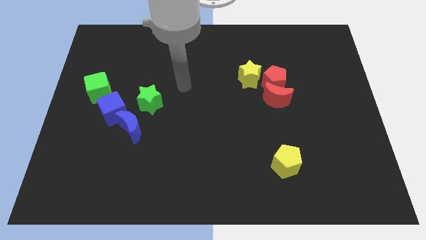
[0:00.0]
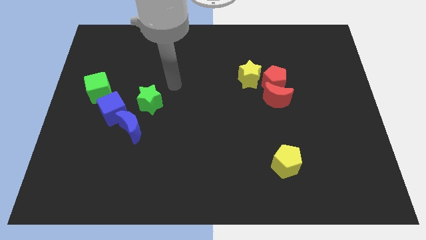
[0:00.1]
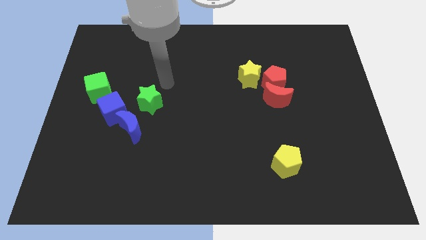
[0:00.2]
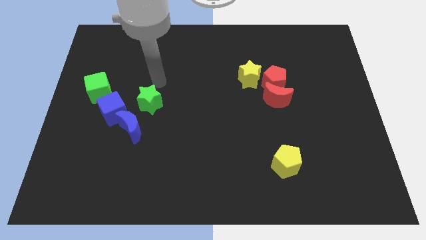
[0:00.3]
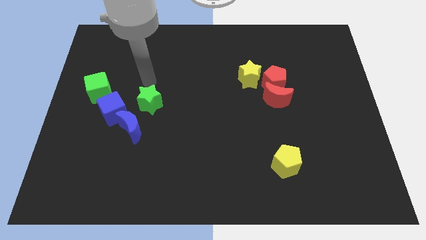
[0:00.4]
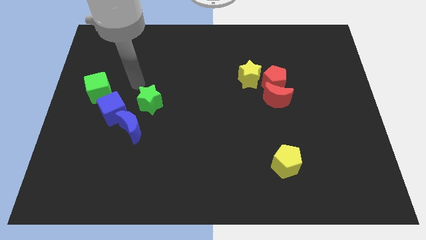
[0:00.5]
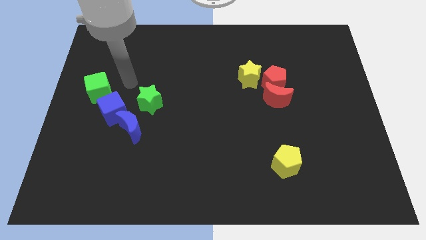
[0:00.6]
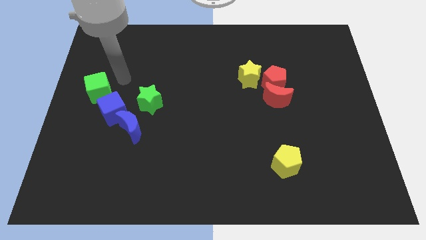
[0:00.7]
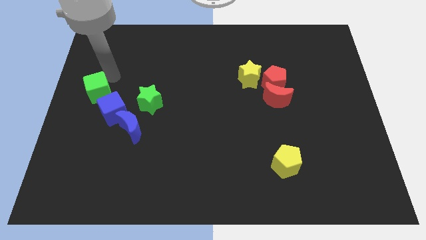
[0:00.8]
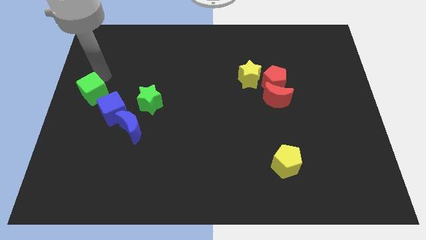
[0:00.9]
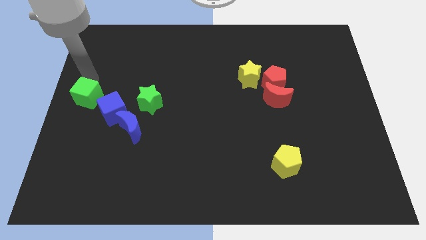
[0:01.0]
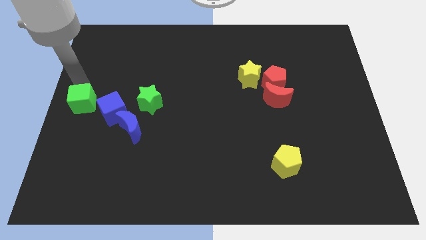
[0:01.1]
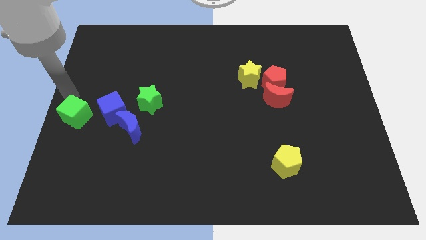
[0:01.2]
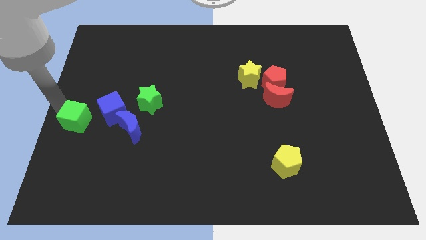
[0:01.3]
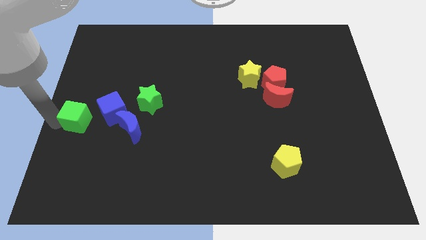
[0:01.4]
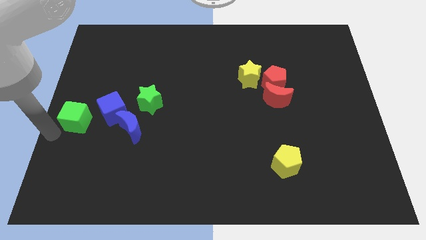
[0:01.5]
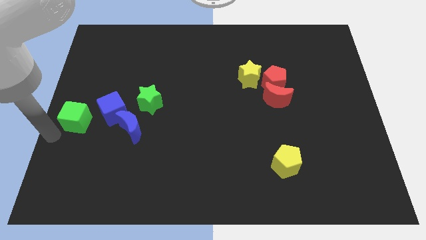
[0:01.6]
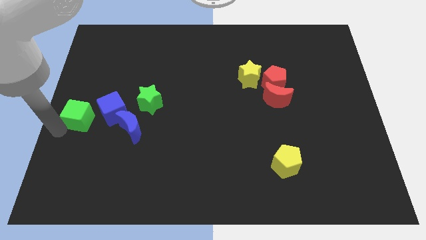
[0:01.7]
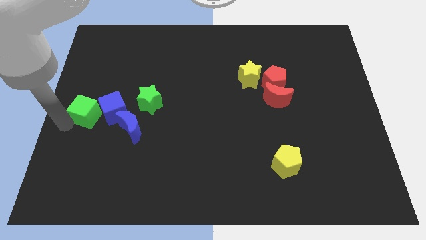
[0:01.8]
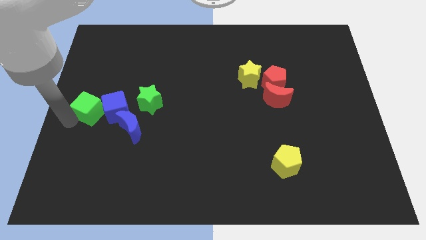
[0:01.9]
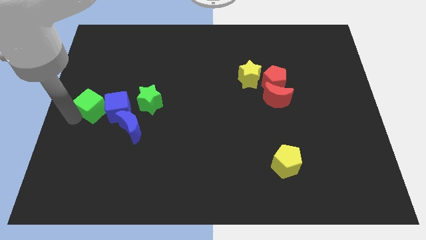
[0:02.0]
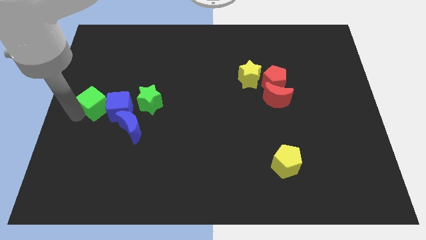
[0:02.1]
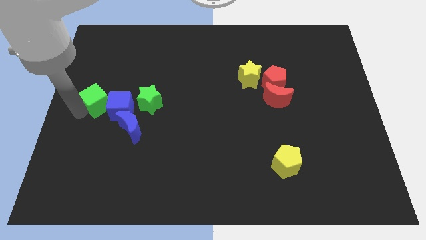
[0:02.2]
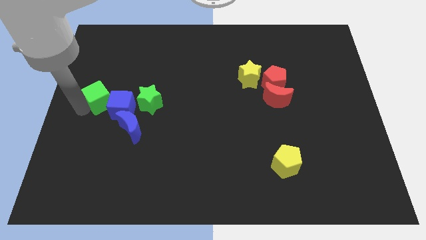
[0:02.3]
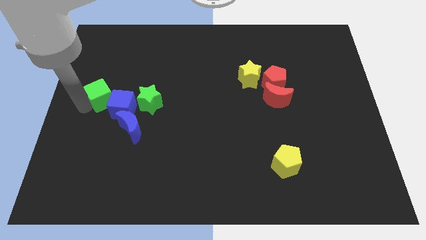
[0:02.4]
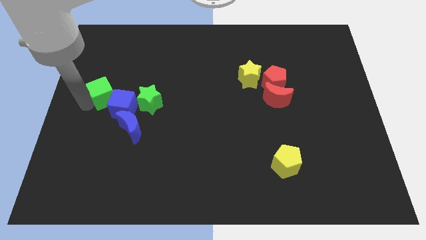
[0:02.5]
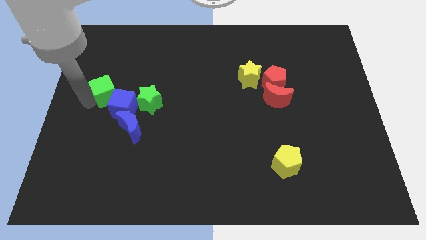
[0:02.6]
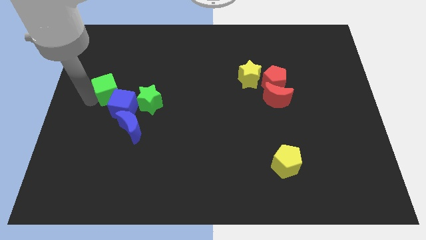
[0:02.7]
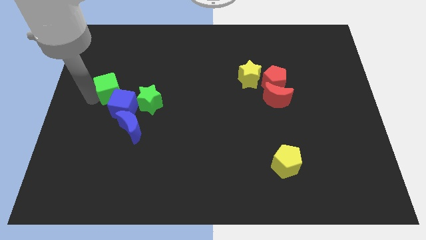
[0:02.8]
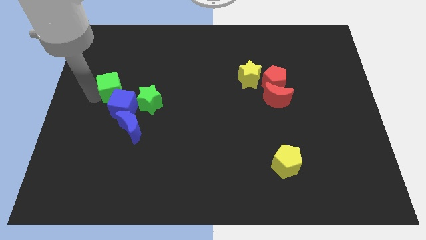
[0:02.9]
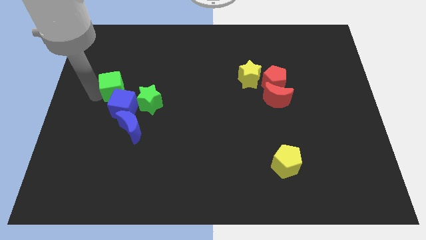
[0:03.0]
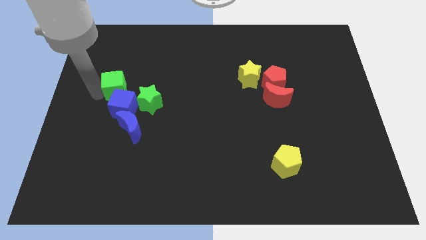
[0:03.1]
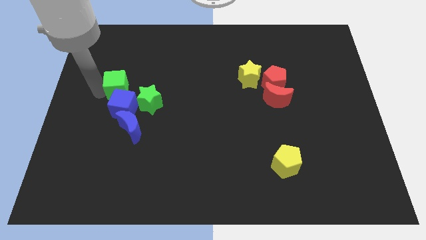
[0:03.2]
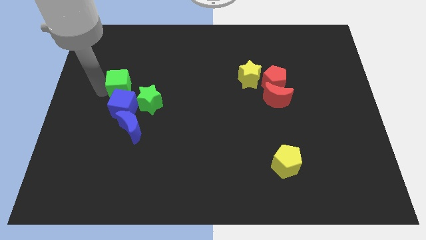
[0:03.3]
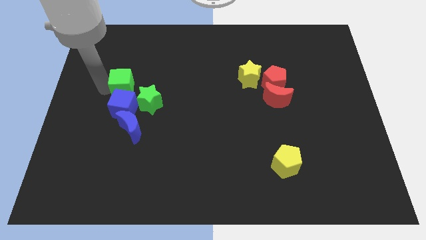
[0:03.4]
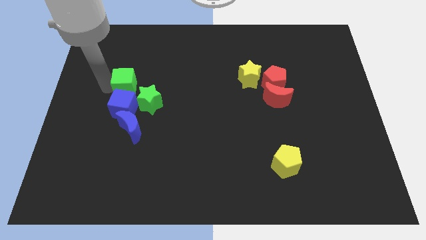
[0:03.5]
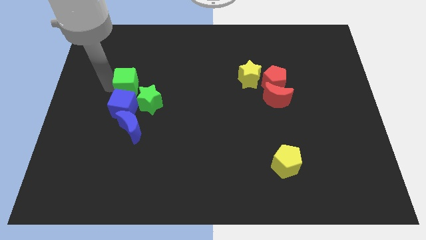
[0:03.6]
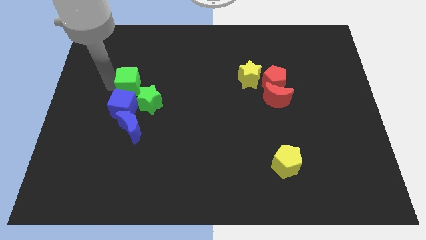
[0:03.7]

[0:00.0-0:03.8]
slightly slide the green cube to the right

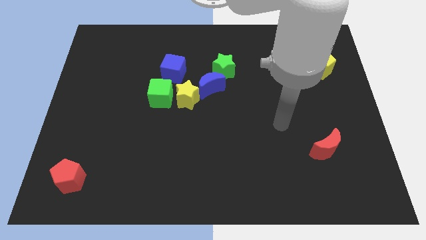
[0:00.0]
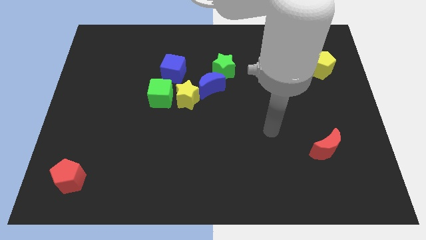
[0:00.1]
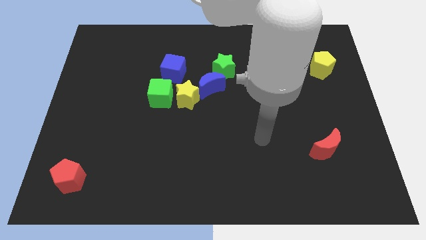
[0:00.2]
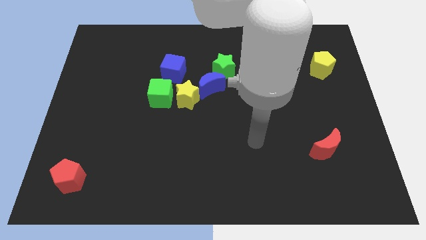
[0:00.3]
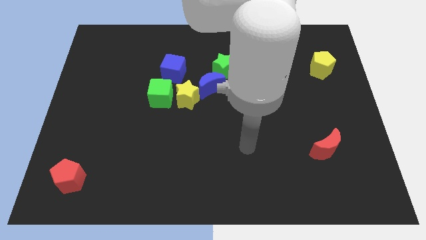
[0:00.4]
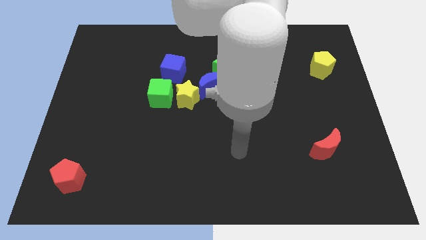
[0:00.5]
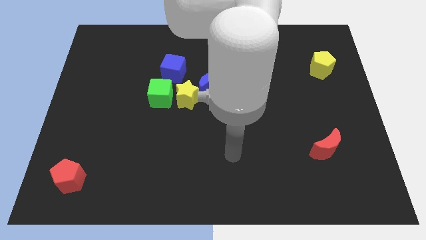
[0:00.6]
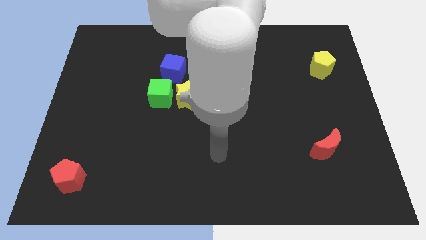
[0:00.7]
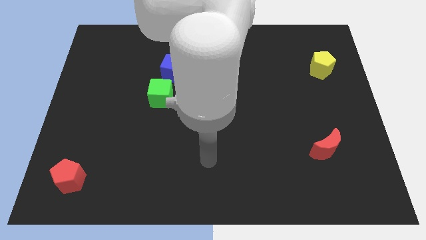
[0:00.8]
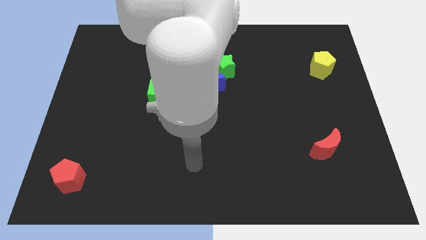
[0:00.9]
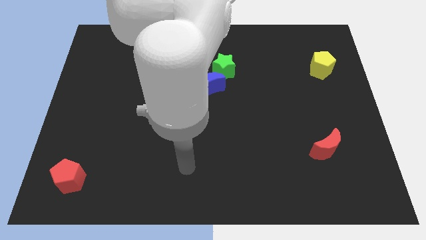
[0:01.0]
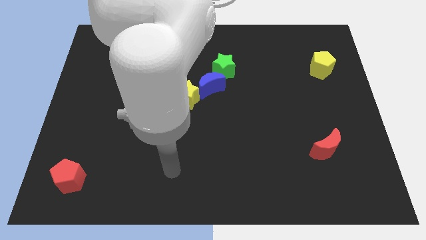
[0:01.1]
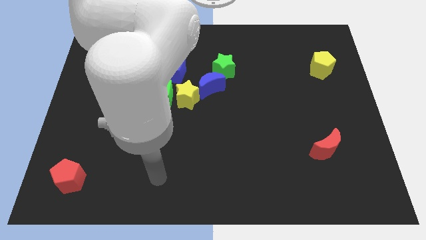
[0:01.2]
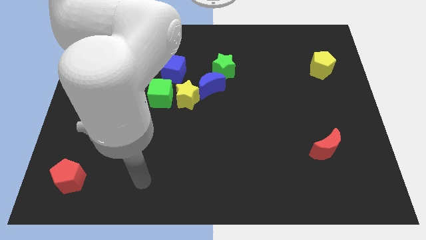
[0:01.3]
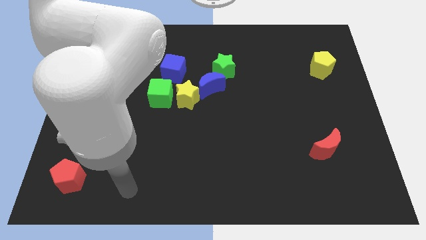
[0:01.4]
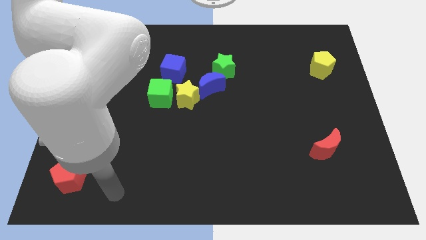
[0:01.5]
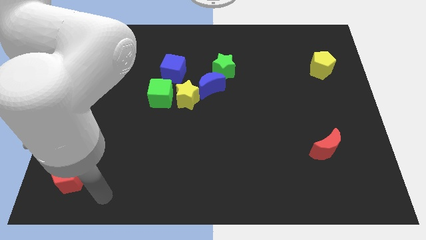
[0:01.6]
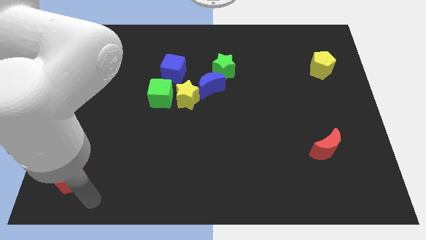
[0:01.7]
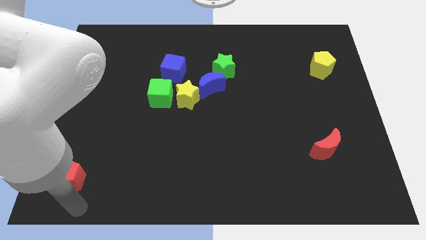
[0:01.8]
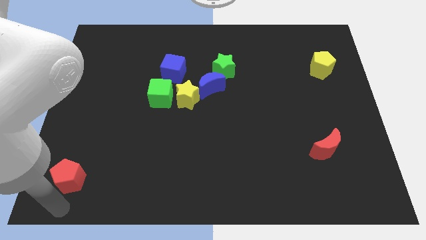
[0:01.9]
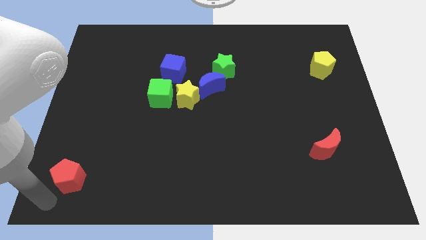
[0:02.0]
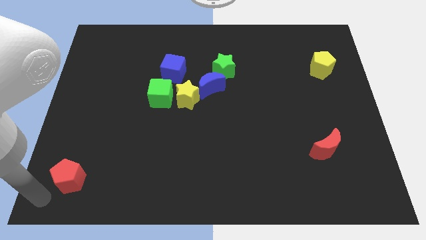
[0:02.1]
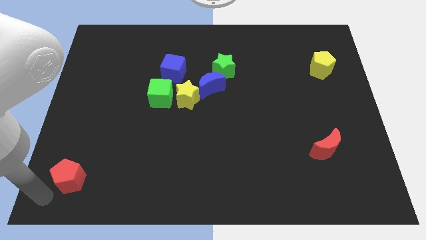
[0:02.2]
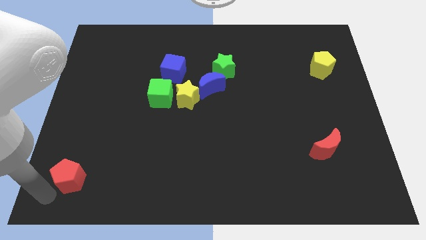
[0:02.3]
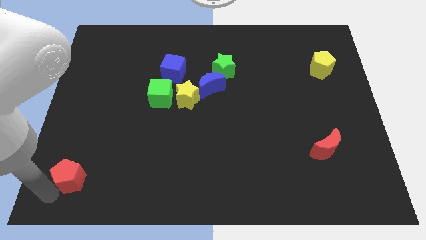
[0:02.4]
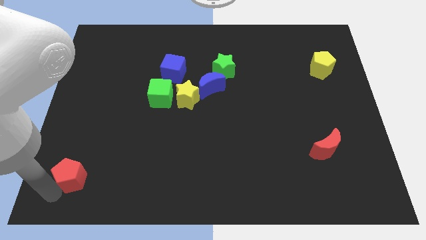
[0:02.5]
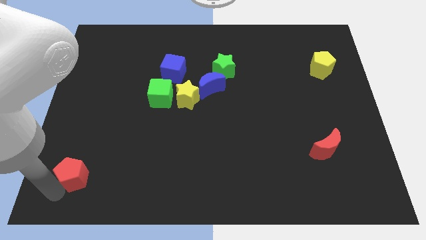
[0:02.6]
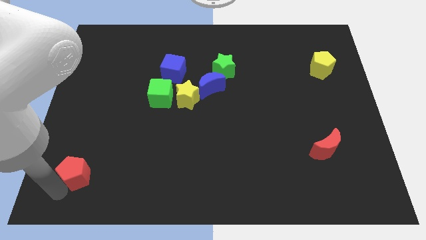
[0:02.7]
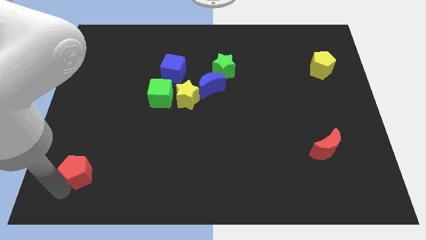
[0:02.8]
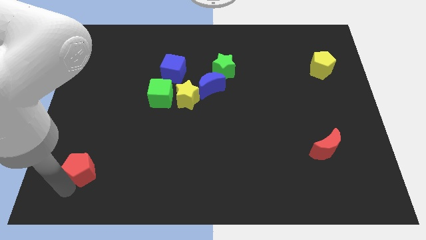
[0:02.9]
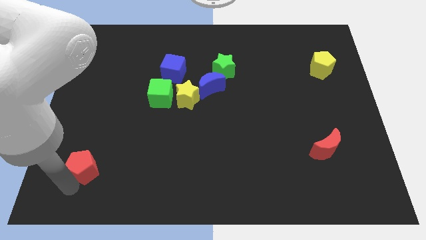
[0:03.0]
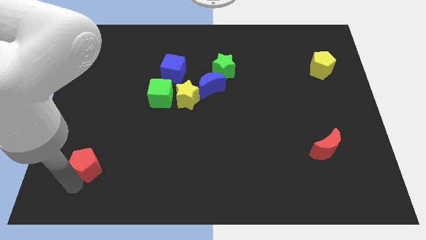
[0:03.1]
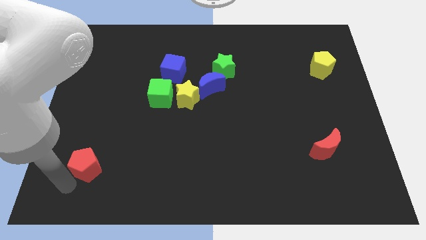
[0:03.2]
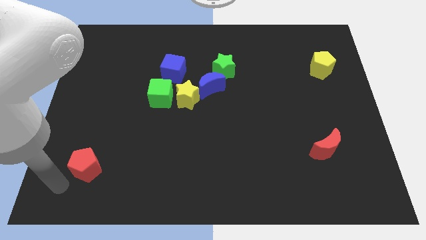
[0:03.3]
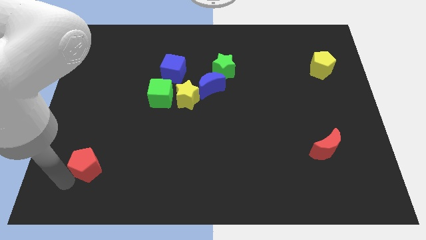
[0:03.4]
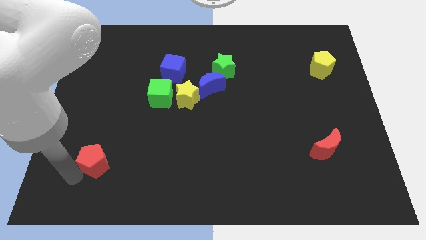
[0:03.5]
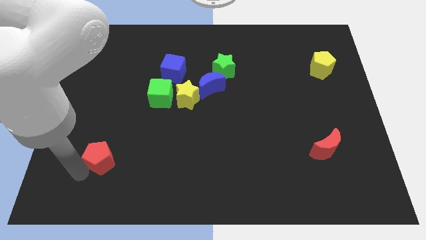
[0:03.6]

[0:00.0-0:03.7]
slide the red pentagon diagonally up and right somewhat

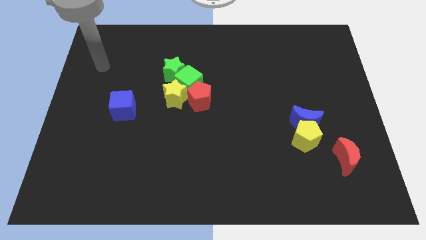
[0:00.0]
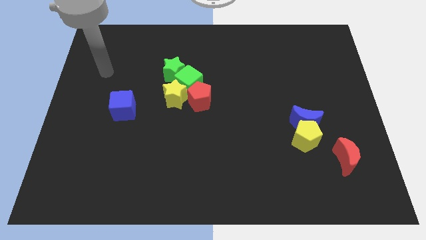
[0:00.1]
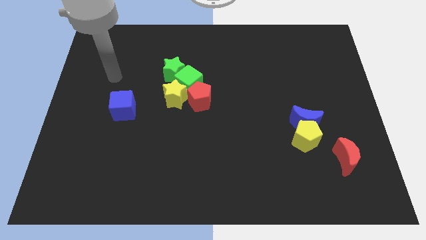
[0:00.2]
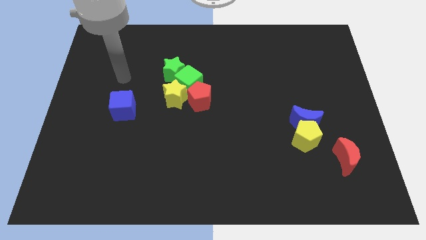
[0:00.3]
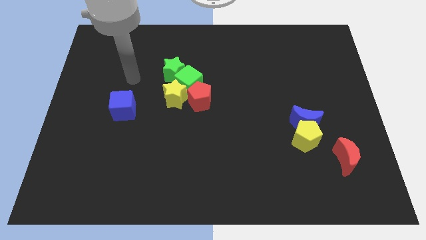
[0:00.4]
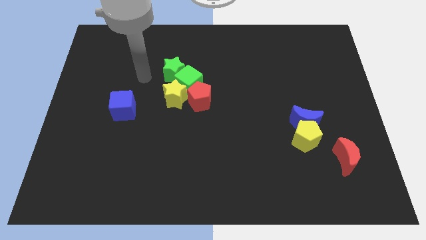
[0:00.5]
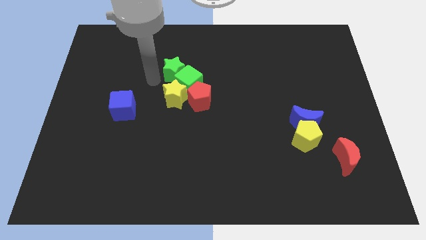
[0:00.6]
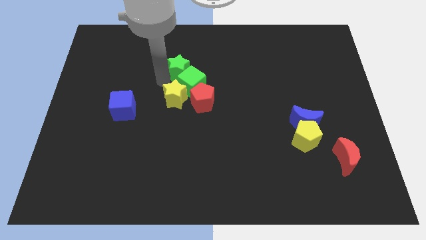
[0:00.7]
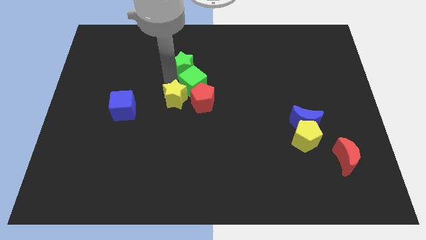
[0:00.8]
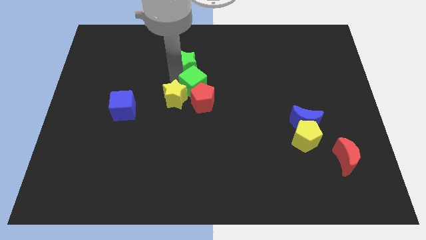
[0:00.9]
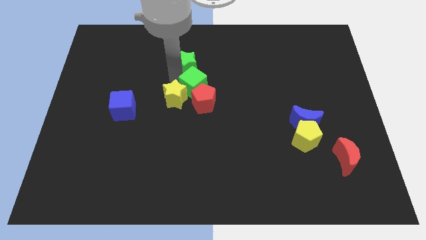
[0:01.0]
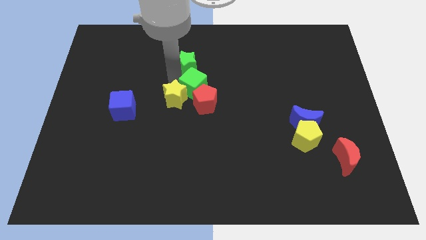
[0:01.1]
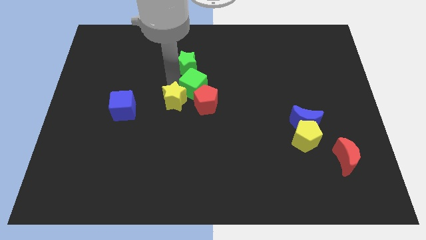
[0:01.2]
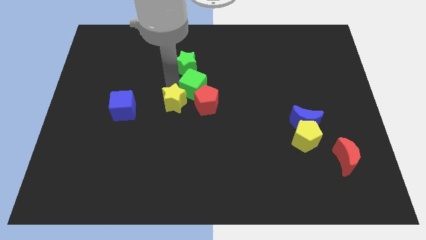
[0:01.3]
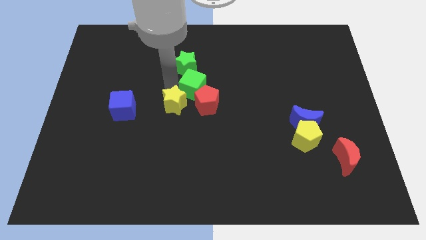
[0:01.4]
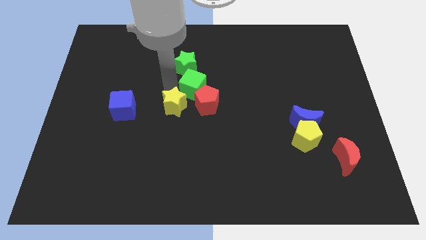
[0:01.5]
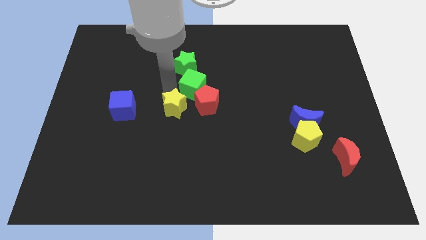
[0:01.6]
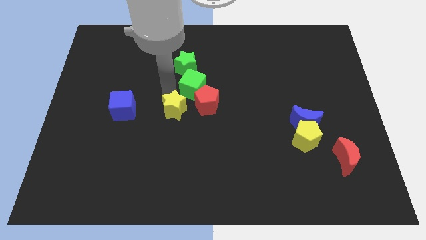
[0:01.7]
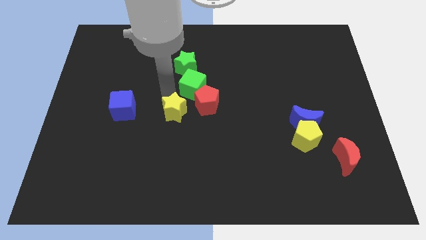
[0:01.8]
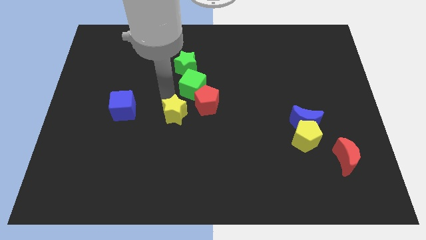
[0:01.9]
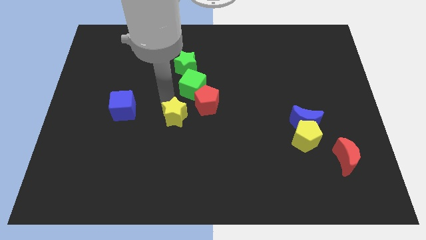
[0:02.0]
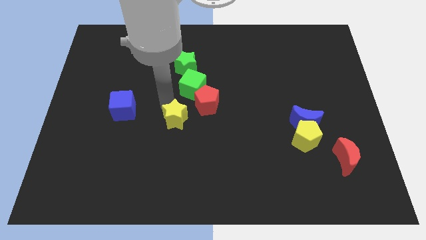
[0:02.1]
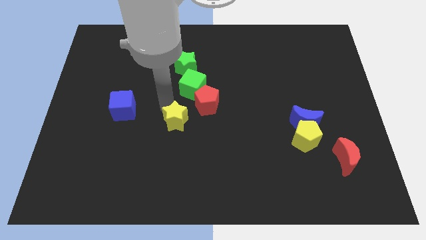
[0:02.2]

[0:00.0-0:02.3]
move the yellow star down a little
